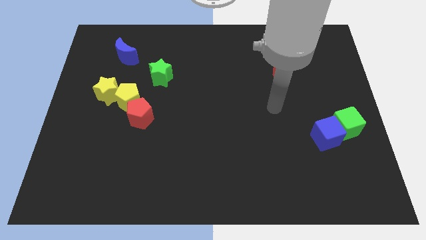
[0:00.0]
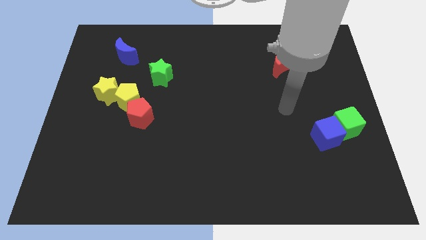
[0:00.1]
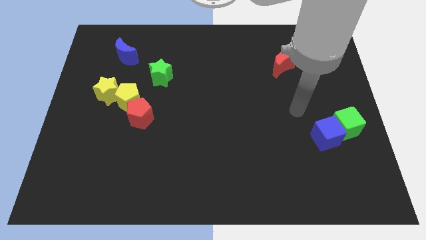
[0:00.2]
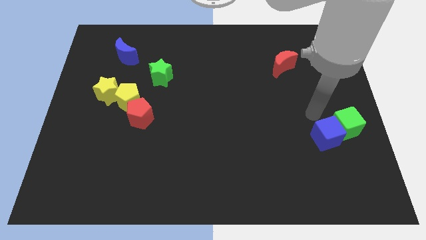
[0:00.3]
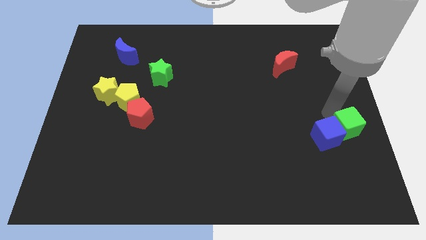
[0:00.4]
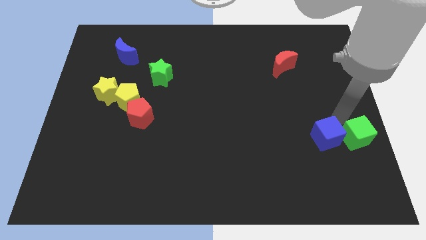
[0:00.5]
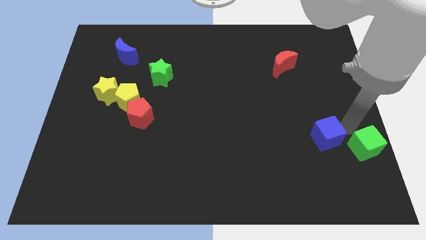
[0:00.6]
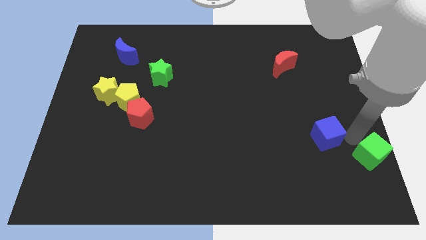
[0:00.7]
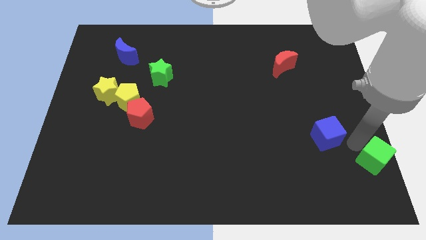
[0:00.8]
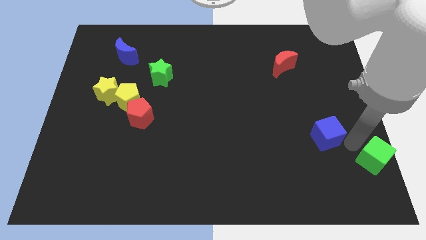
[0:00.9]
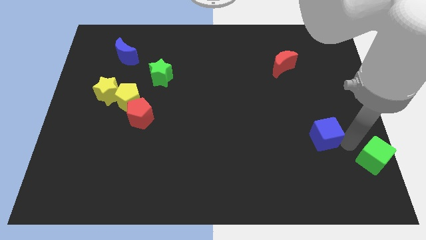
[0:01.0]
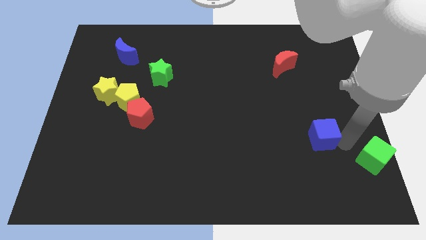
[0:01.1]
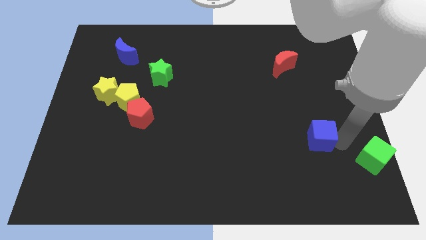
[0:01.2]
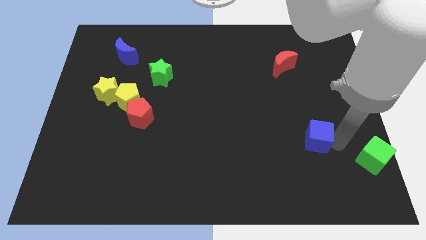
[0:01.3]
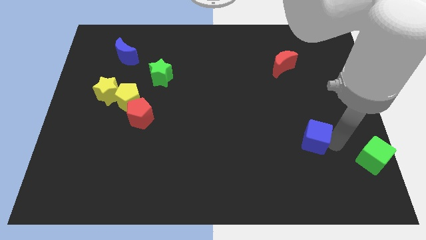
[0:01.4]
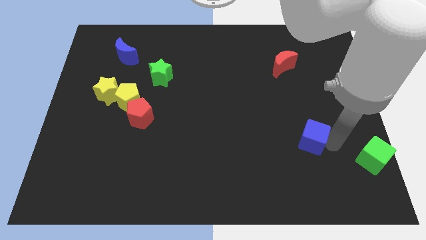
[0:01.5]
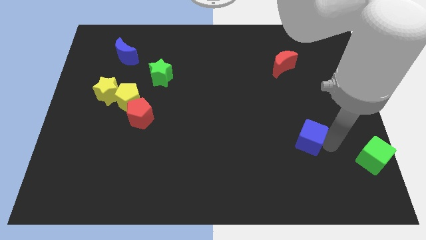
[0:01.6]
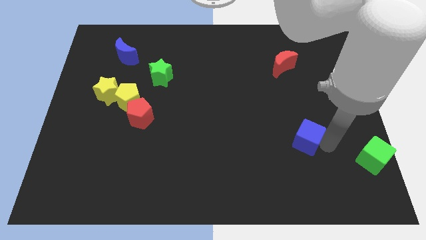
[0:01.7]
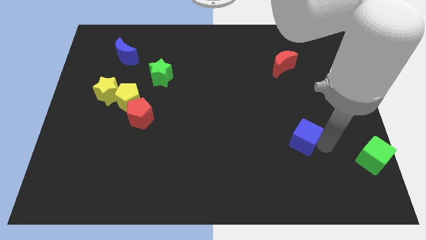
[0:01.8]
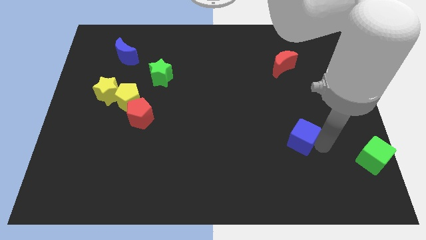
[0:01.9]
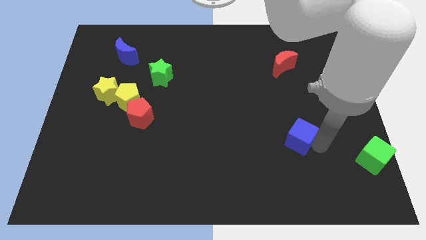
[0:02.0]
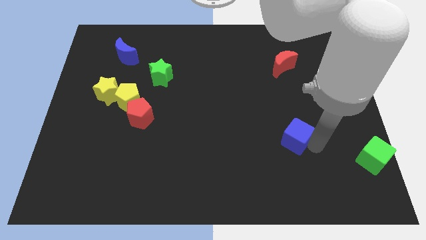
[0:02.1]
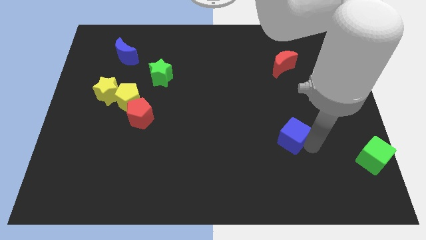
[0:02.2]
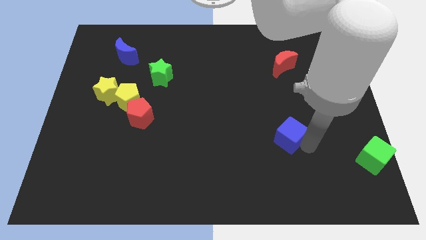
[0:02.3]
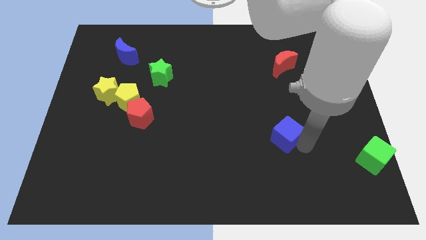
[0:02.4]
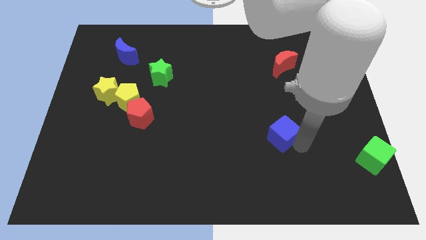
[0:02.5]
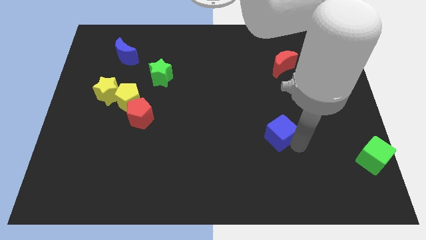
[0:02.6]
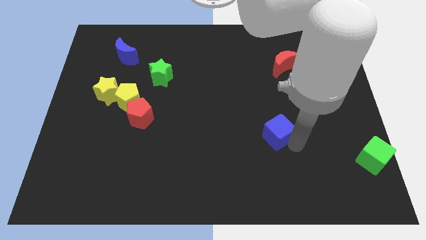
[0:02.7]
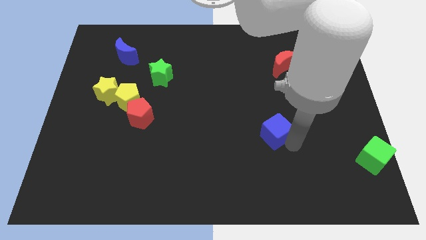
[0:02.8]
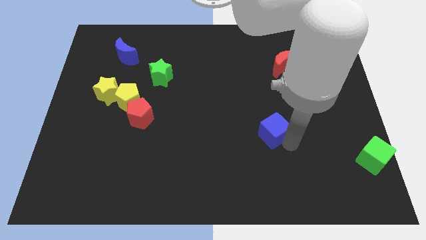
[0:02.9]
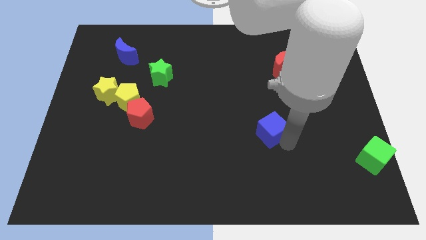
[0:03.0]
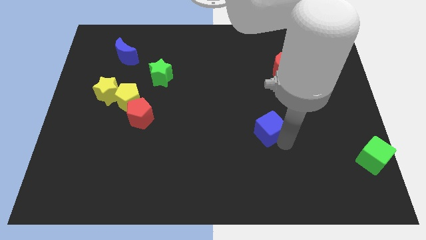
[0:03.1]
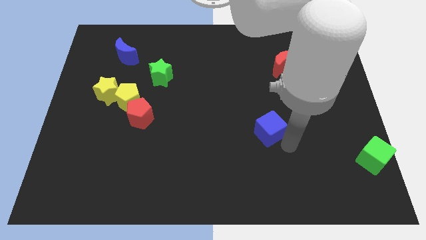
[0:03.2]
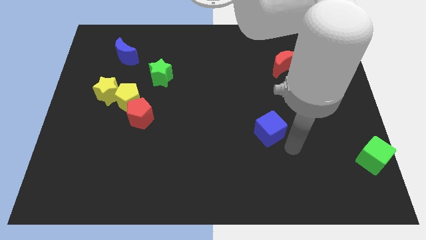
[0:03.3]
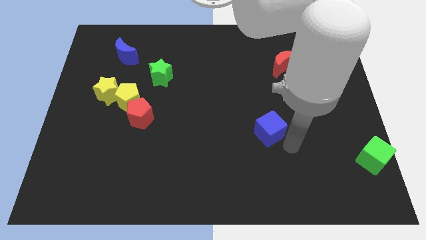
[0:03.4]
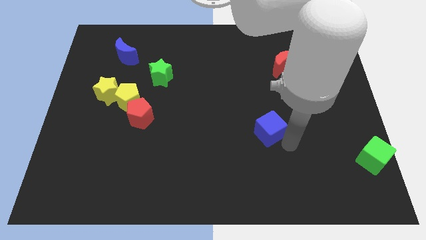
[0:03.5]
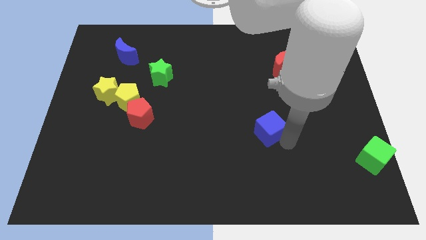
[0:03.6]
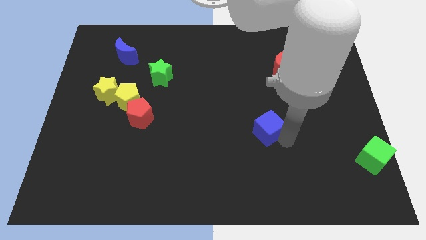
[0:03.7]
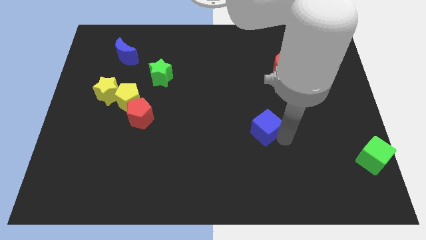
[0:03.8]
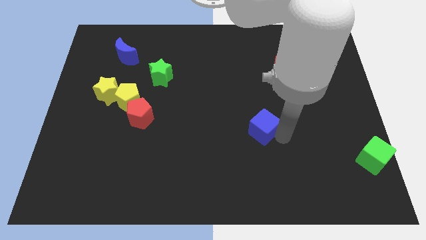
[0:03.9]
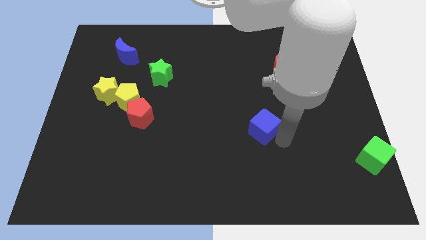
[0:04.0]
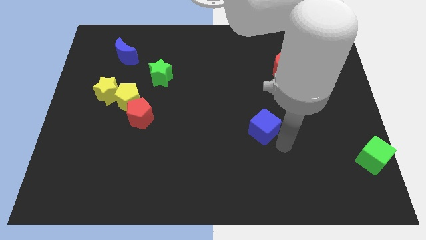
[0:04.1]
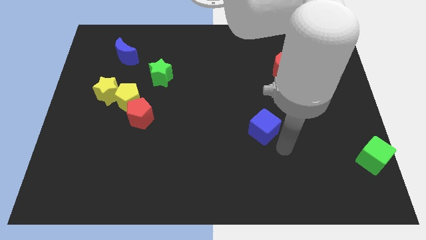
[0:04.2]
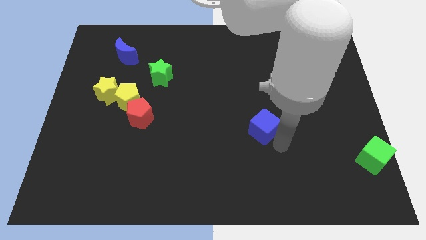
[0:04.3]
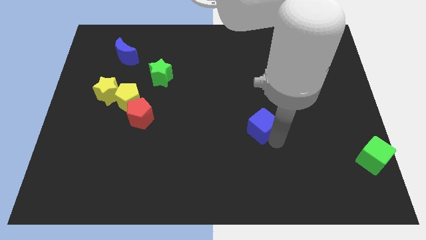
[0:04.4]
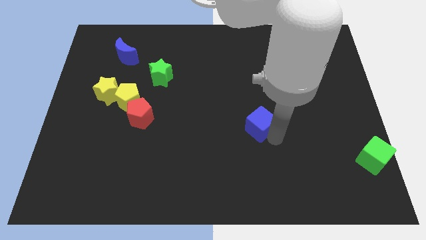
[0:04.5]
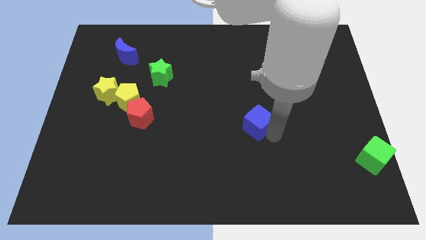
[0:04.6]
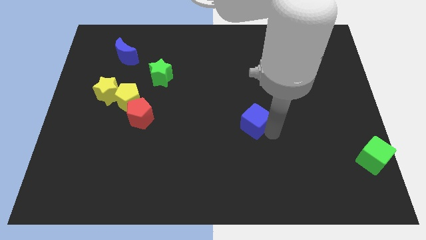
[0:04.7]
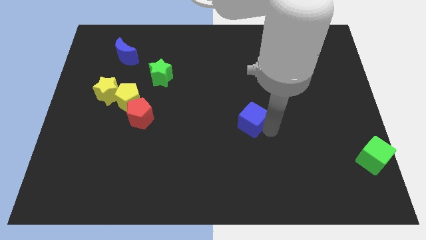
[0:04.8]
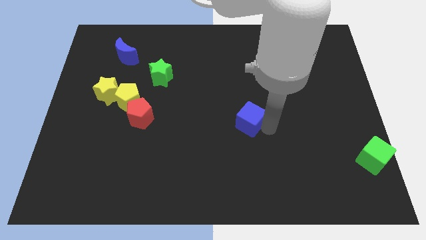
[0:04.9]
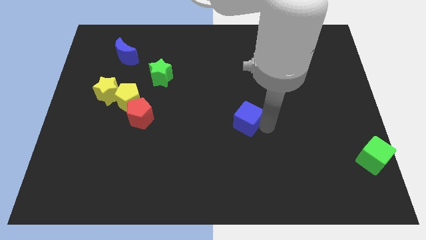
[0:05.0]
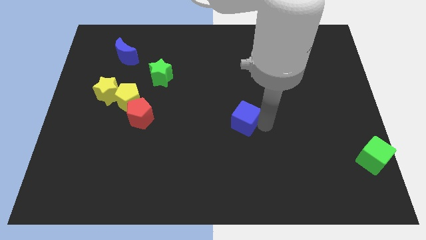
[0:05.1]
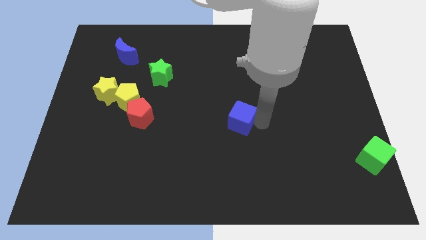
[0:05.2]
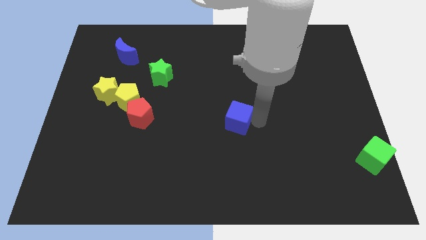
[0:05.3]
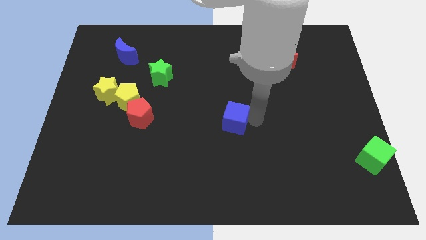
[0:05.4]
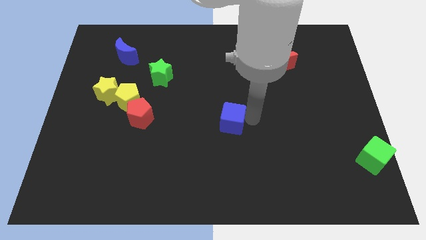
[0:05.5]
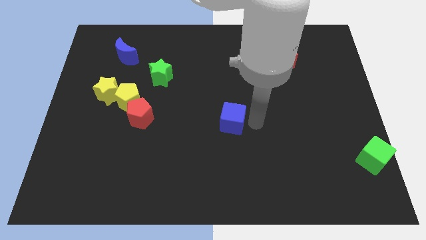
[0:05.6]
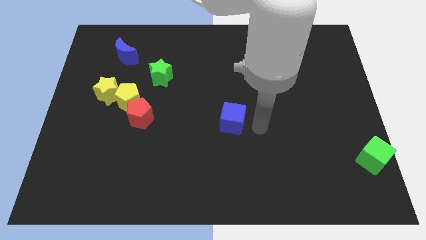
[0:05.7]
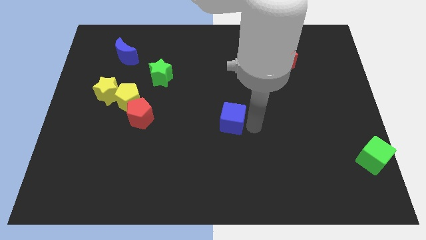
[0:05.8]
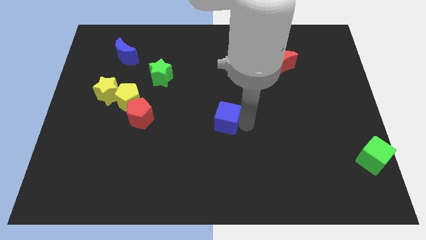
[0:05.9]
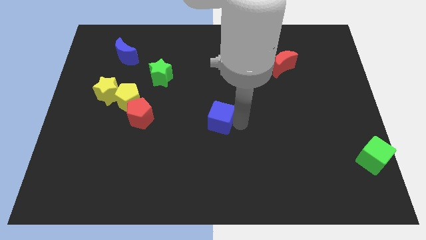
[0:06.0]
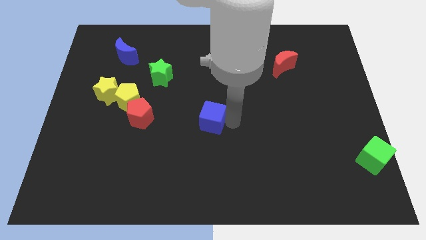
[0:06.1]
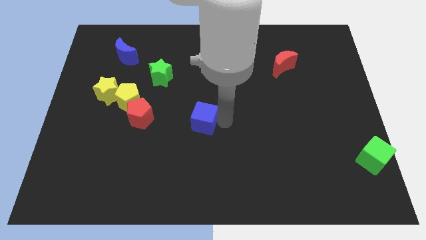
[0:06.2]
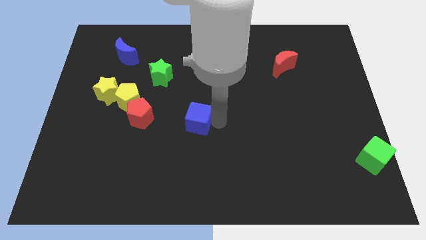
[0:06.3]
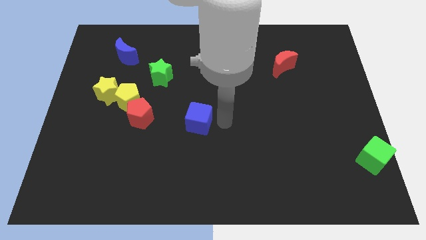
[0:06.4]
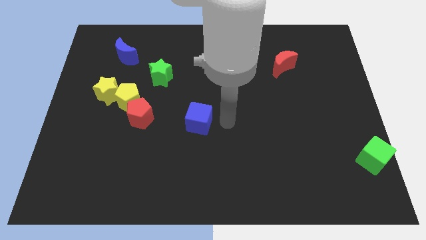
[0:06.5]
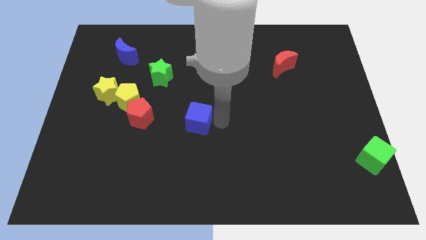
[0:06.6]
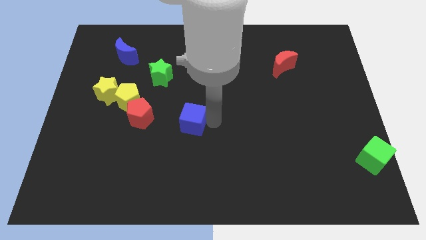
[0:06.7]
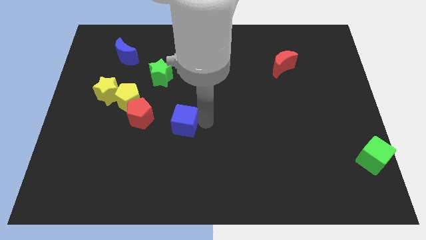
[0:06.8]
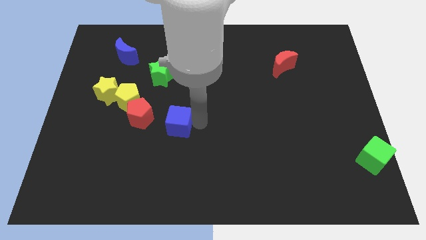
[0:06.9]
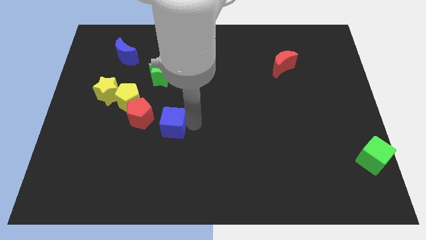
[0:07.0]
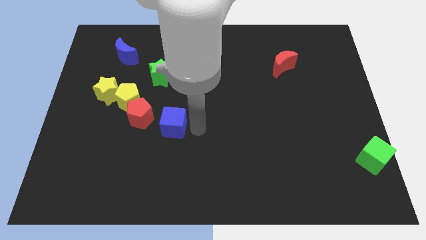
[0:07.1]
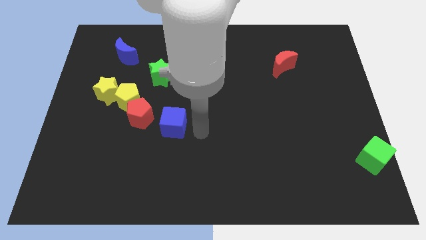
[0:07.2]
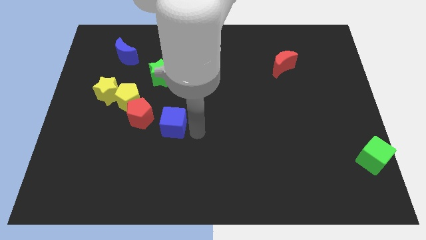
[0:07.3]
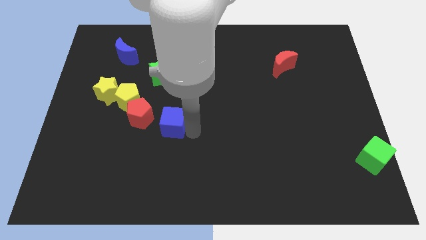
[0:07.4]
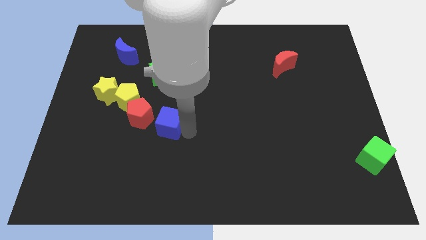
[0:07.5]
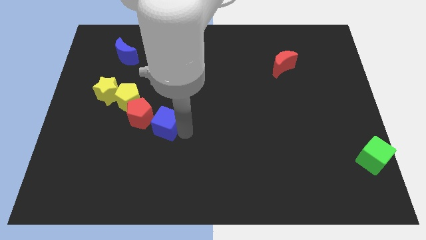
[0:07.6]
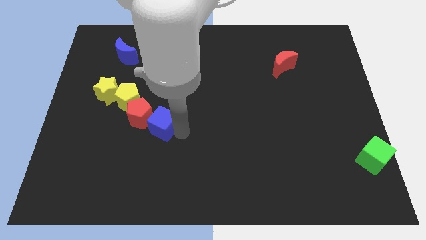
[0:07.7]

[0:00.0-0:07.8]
put the blue cube next to the red pentagon
